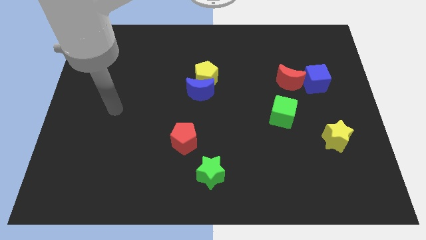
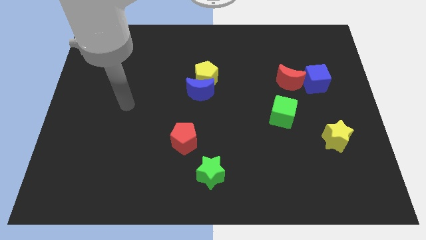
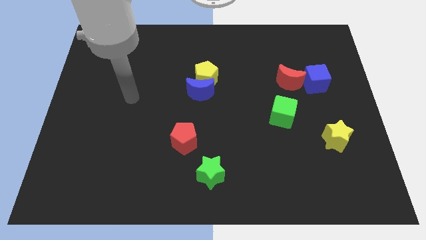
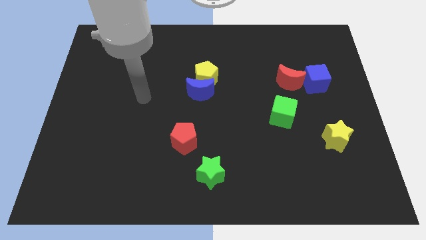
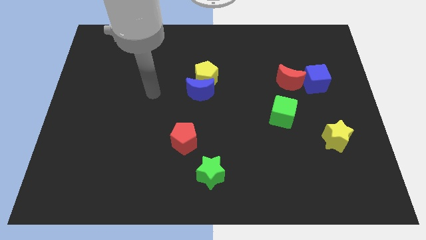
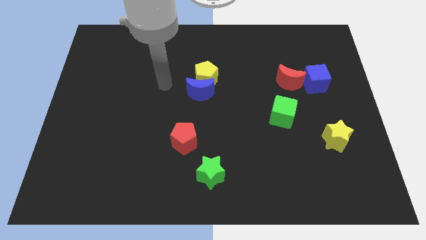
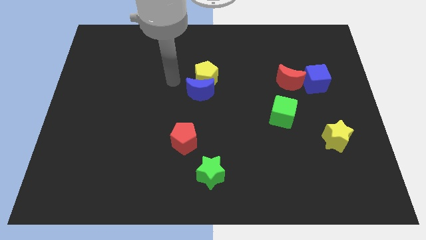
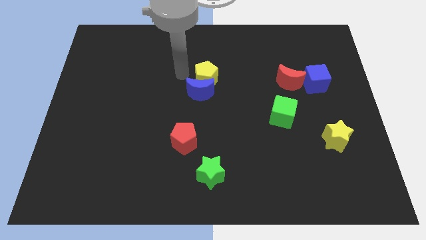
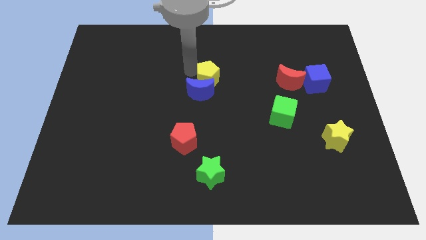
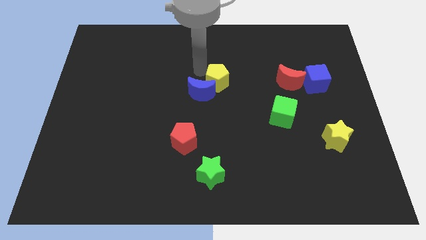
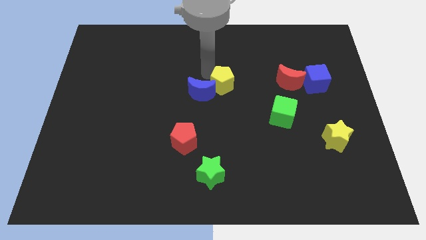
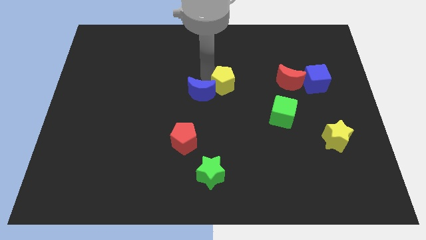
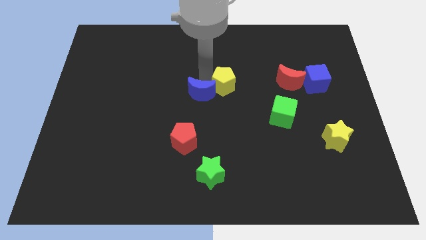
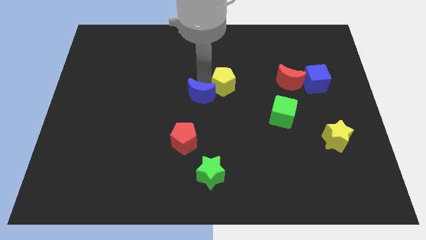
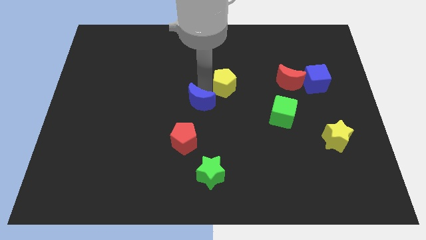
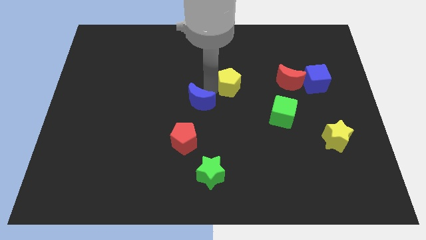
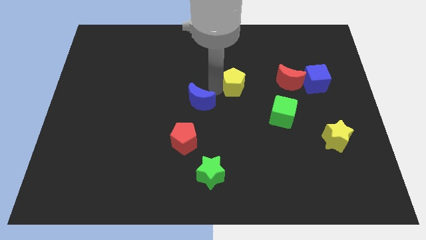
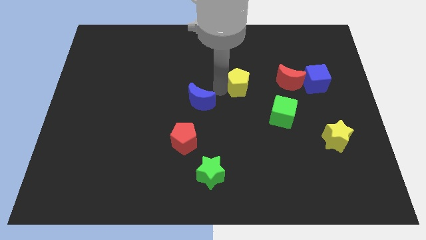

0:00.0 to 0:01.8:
move the blue moon away from the yellow pentagon

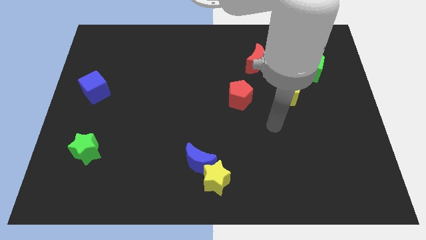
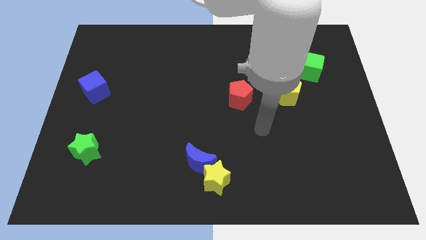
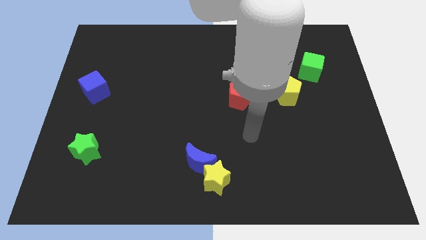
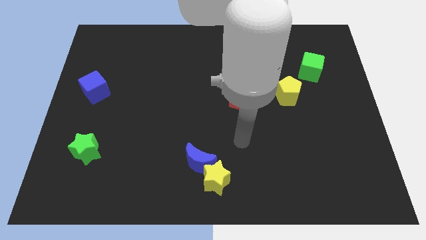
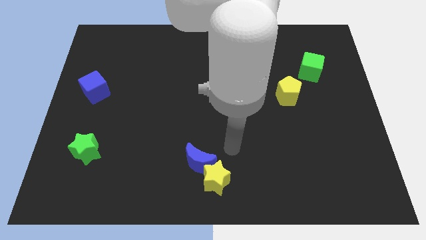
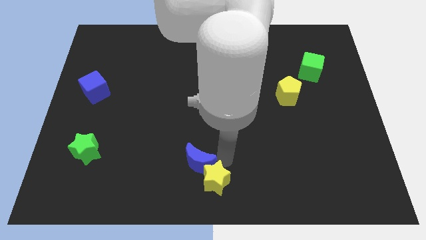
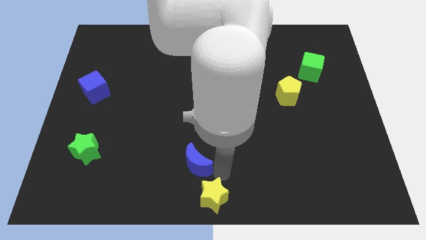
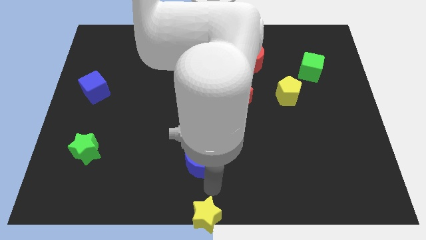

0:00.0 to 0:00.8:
pull the blue moon apart from the yellow star

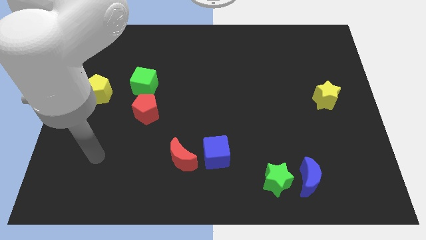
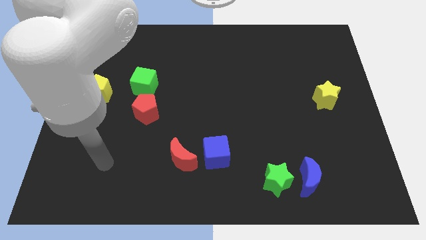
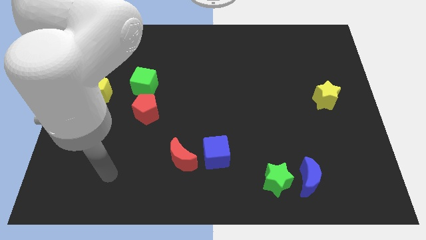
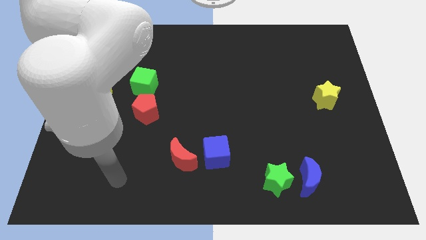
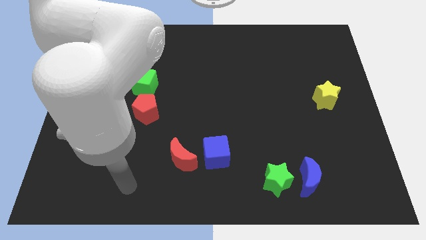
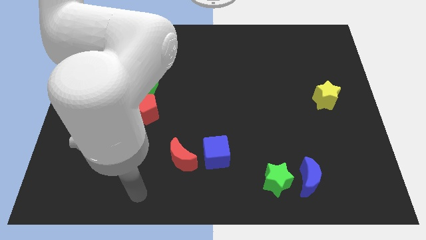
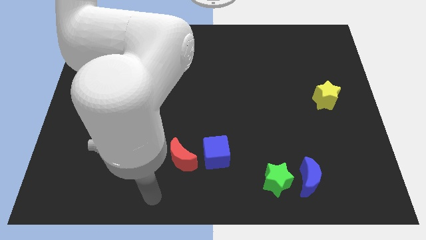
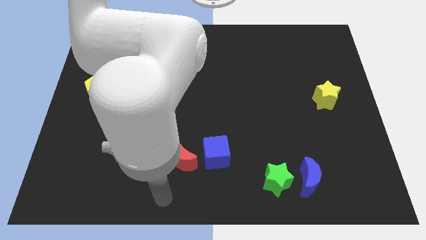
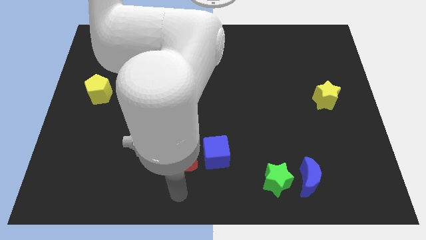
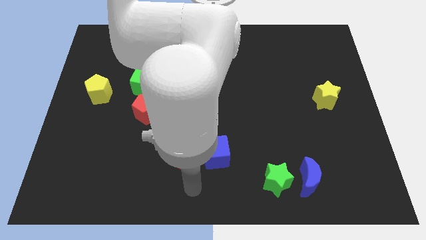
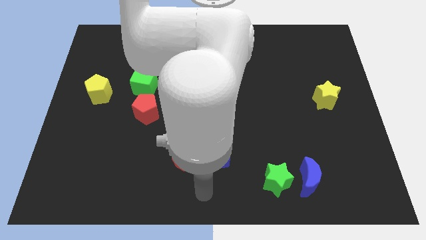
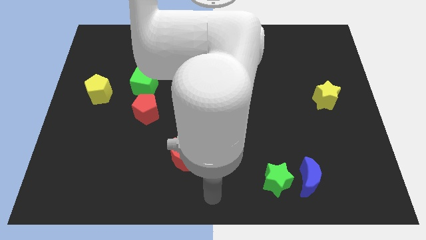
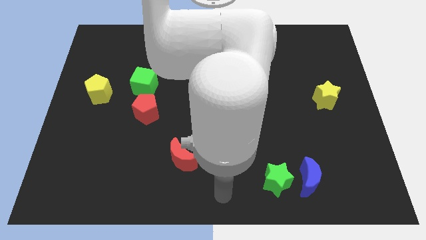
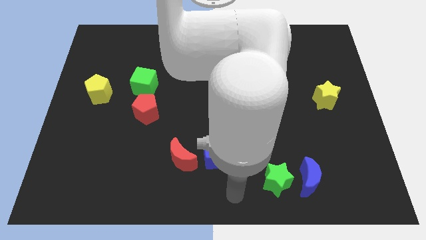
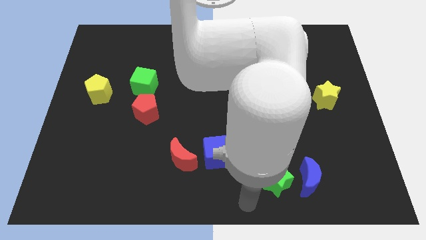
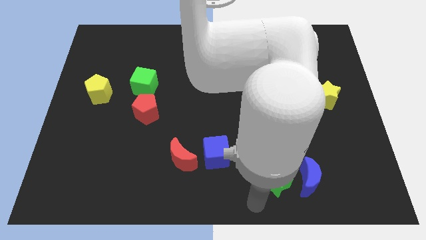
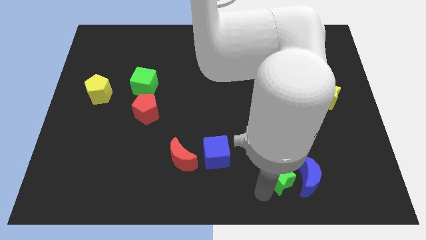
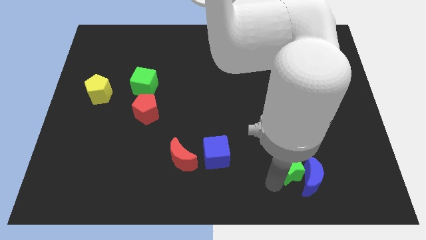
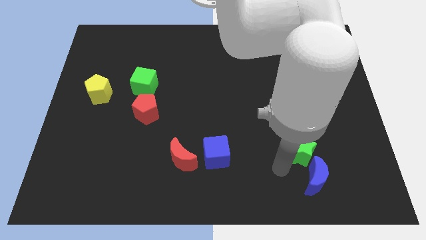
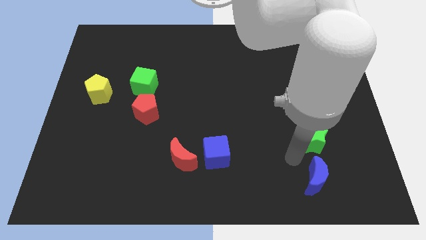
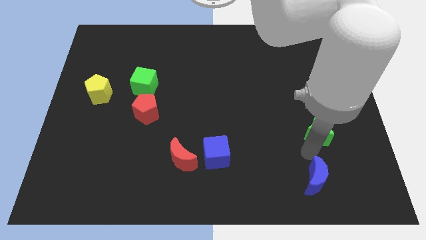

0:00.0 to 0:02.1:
move the blue moon away from the green star

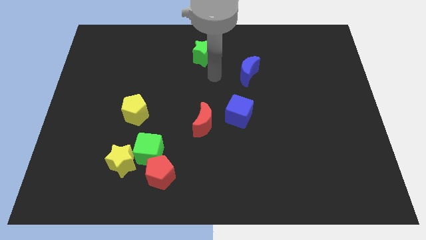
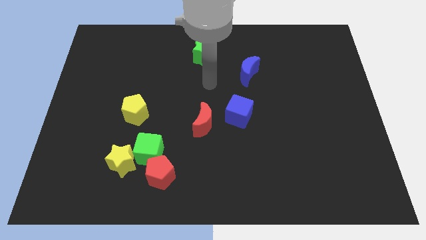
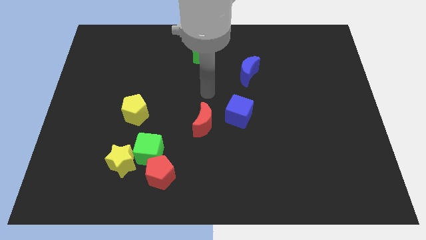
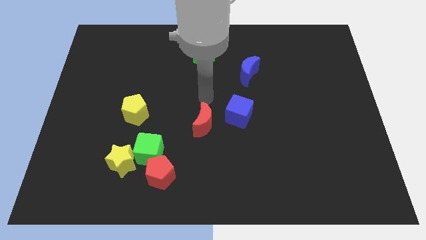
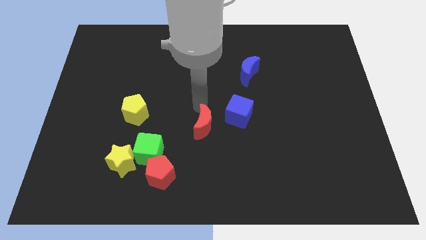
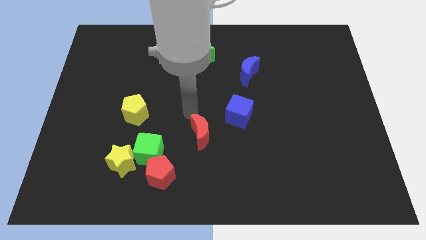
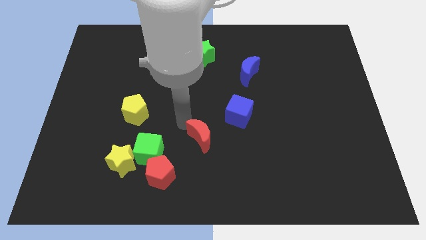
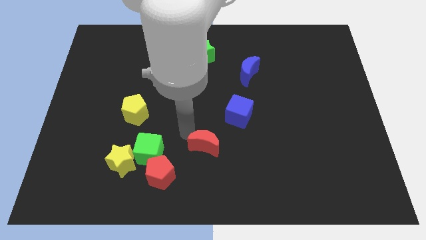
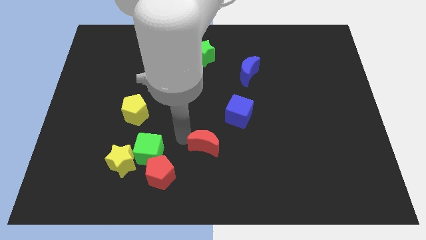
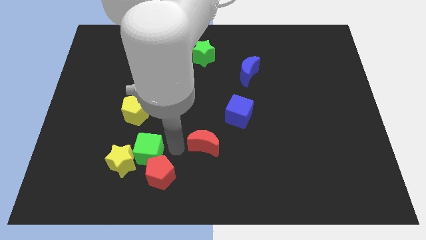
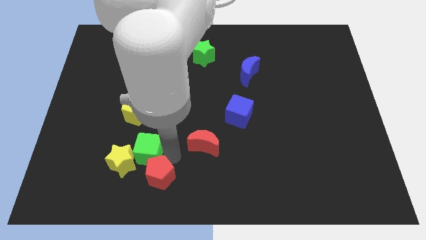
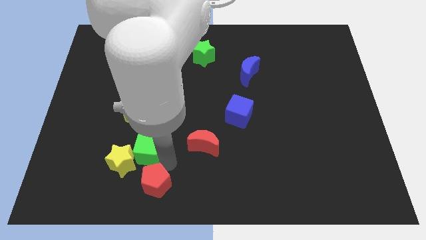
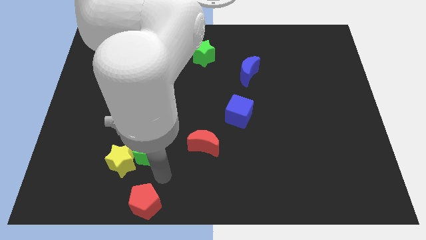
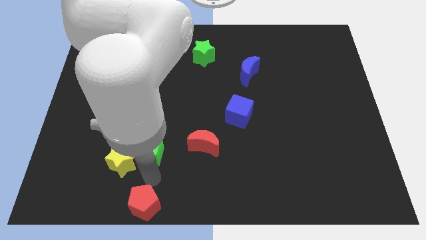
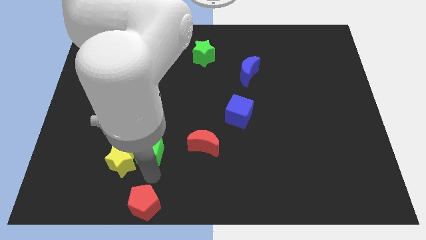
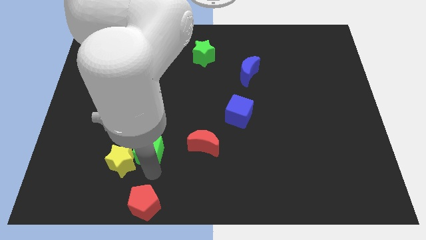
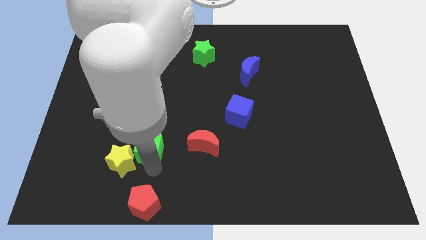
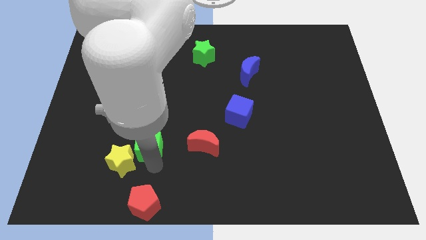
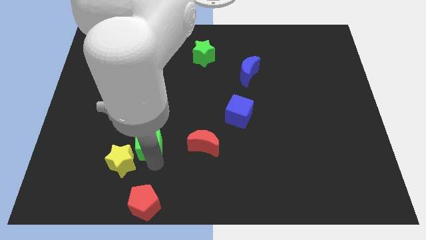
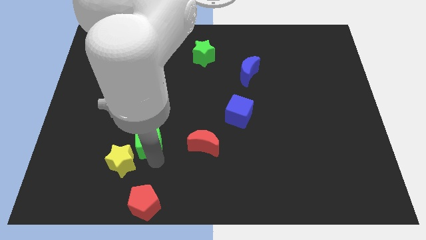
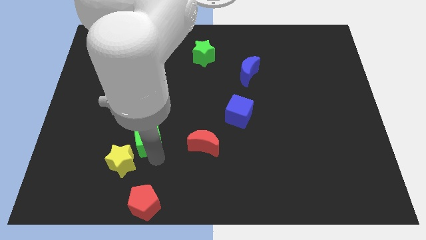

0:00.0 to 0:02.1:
move the green cube away from the yellow star and red pentagon

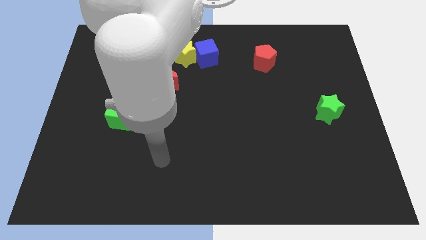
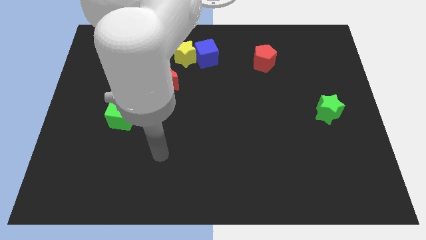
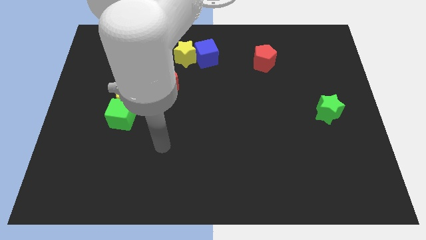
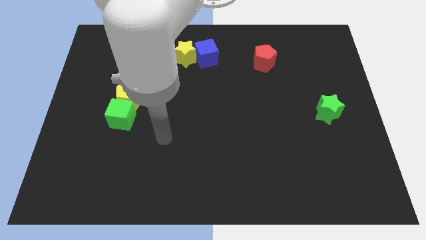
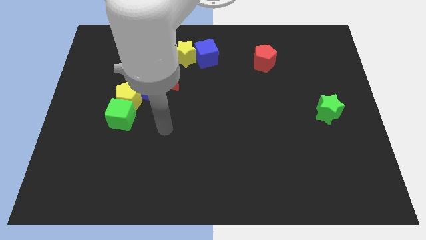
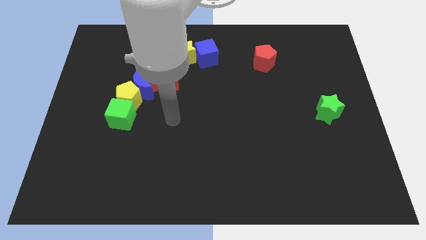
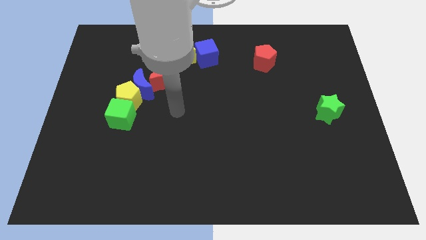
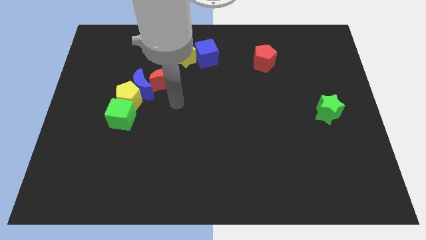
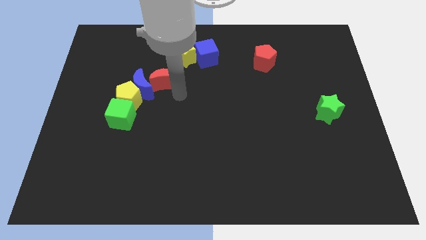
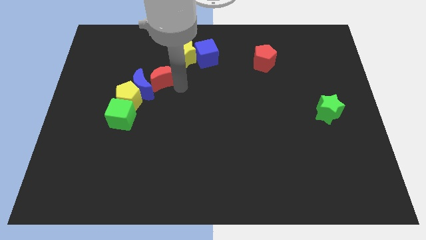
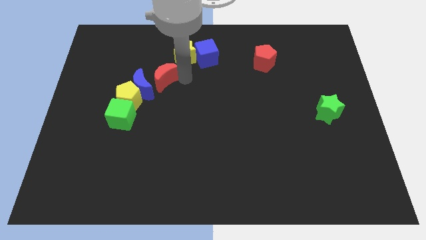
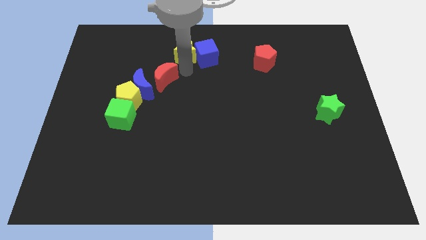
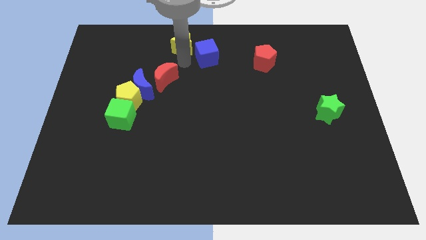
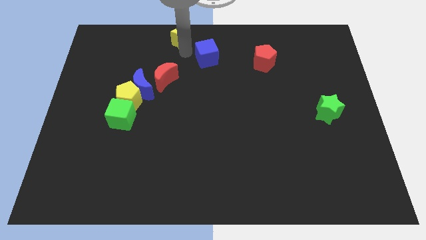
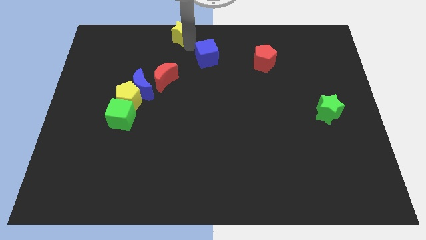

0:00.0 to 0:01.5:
pull the blue cube apart from the yellow star

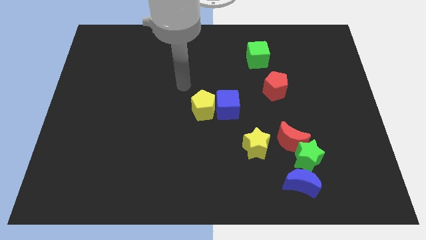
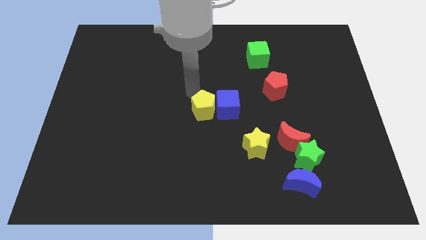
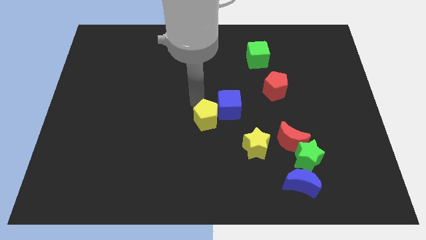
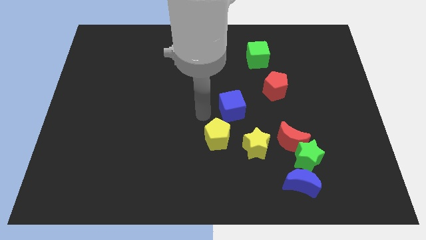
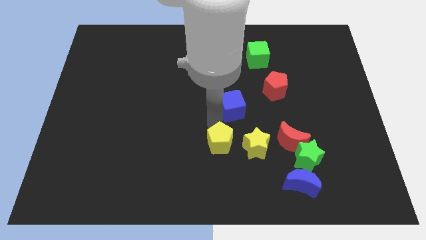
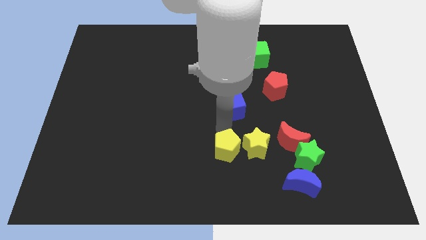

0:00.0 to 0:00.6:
move the blue cube away from the yellow pentagon

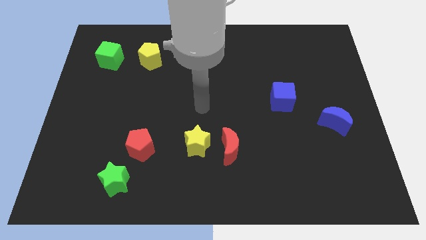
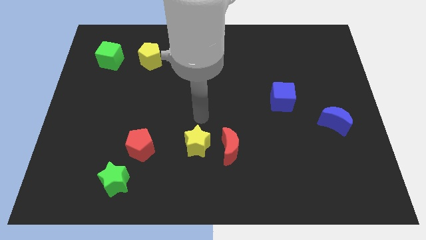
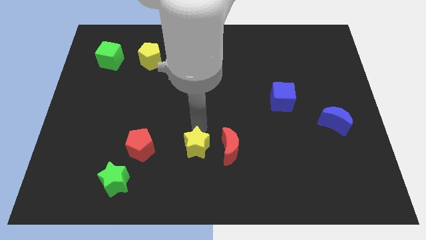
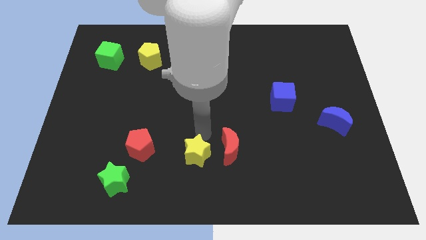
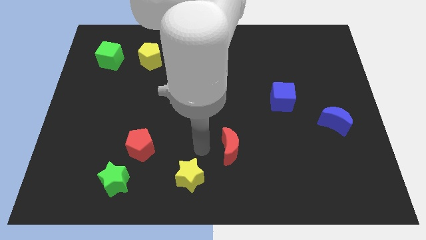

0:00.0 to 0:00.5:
pull the red moon apart from the yellow star
